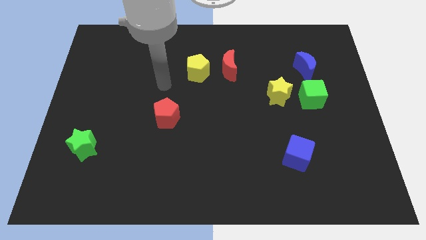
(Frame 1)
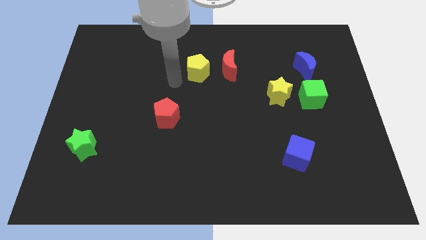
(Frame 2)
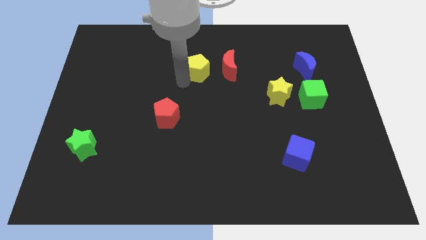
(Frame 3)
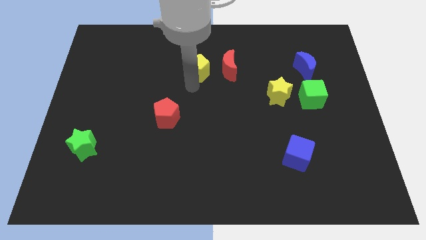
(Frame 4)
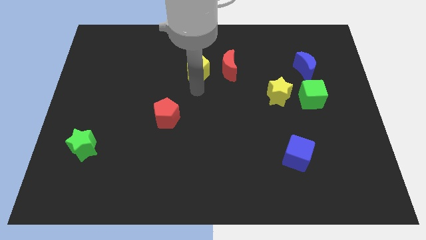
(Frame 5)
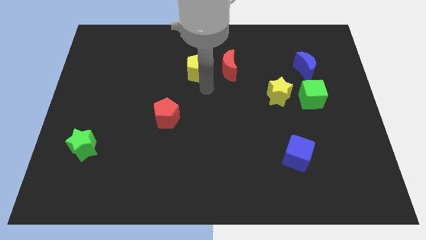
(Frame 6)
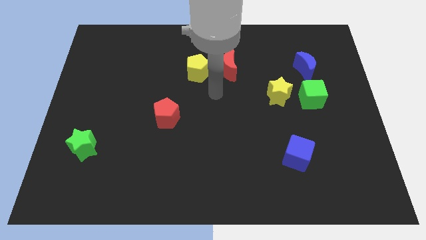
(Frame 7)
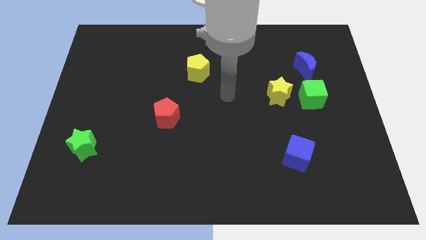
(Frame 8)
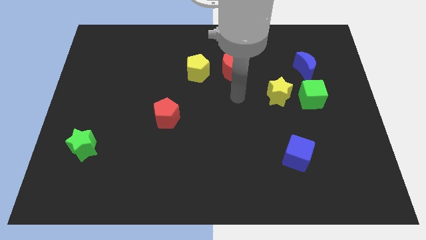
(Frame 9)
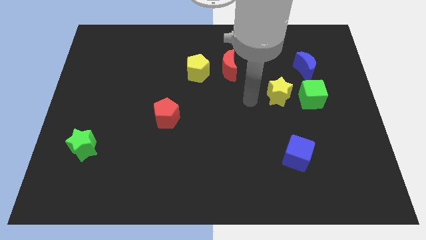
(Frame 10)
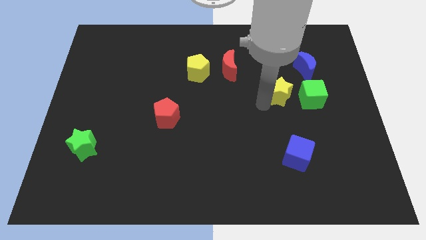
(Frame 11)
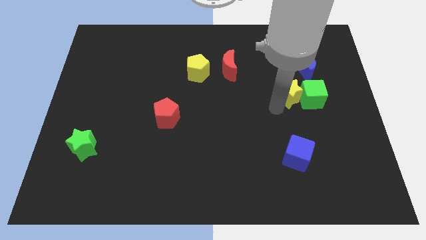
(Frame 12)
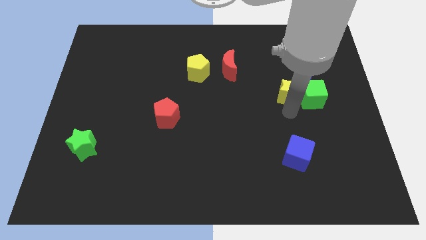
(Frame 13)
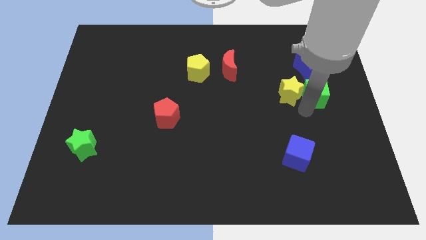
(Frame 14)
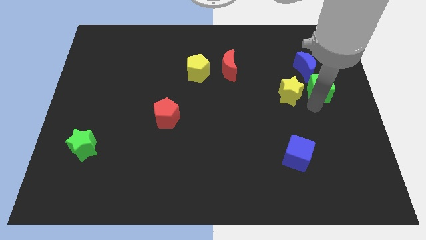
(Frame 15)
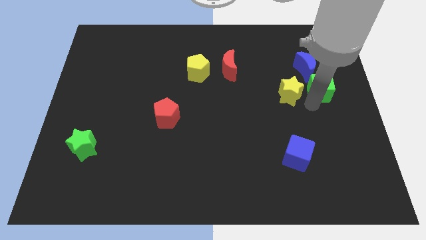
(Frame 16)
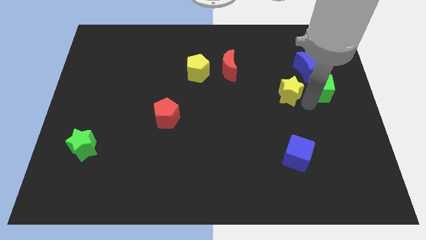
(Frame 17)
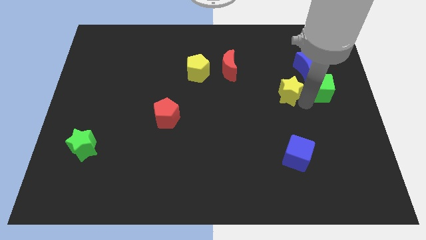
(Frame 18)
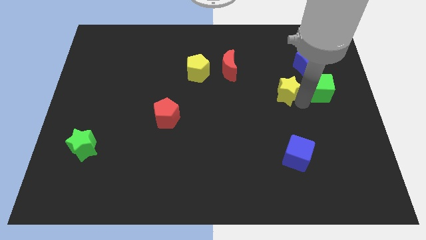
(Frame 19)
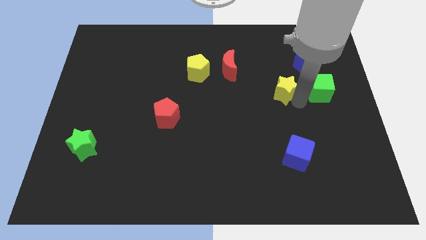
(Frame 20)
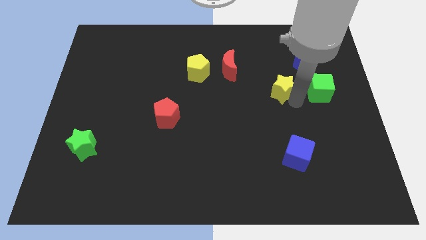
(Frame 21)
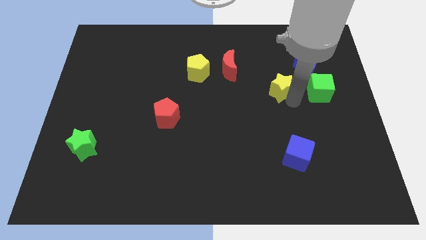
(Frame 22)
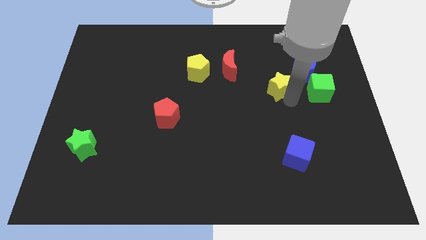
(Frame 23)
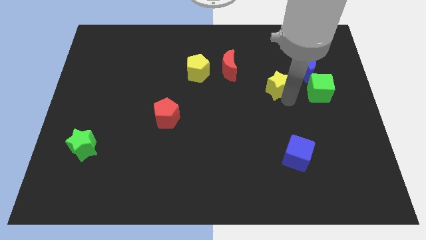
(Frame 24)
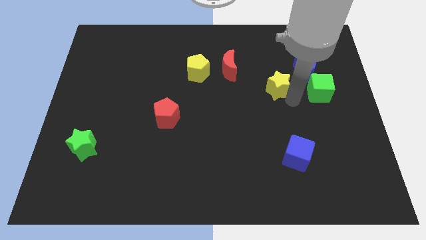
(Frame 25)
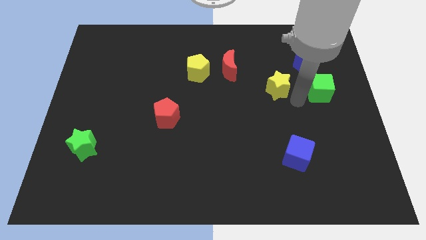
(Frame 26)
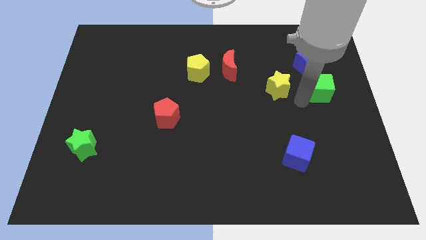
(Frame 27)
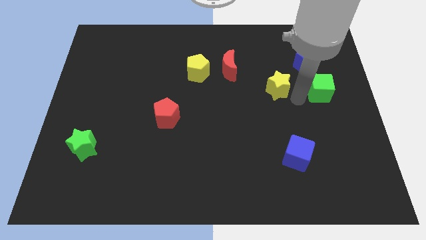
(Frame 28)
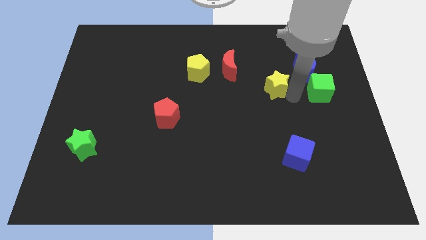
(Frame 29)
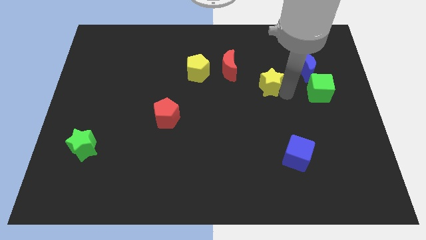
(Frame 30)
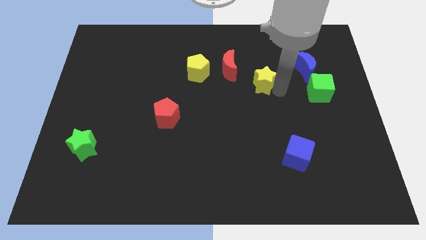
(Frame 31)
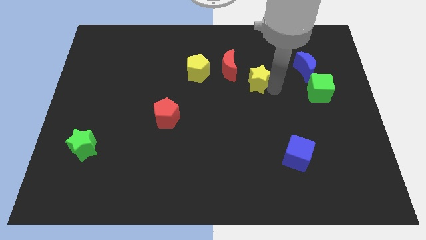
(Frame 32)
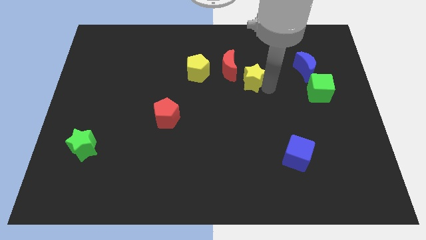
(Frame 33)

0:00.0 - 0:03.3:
slightly push the yellow star upwards and then to the left

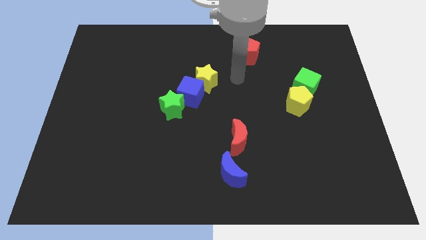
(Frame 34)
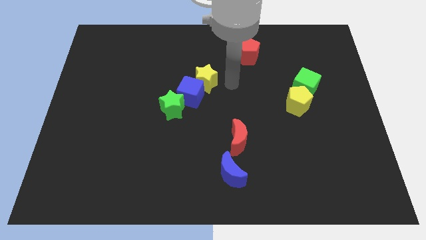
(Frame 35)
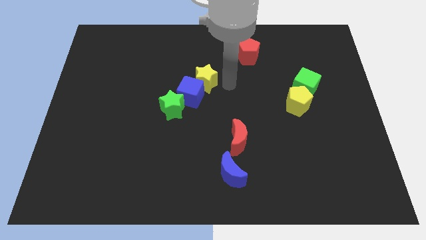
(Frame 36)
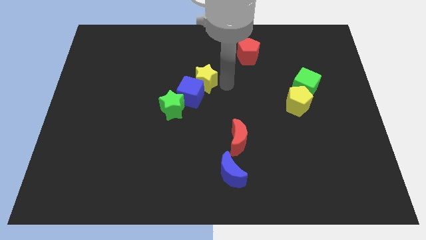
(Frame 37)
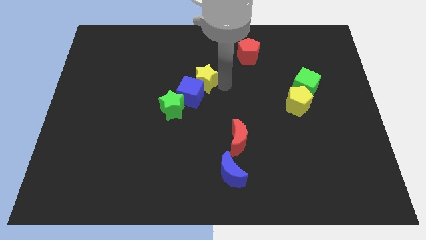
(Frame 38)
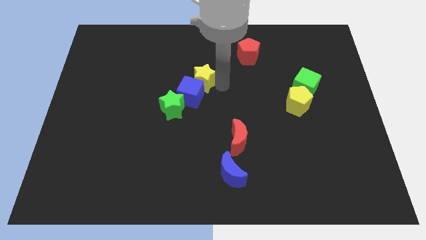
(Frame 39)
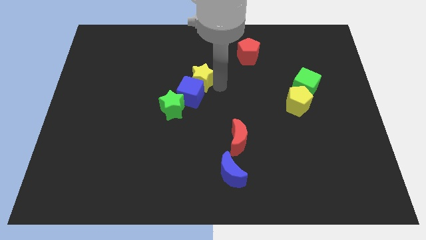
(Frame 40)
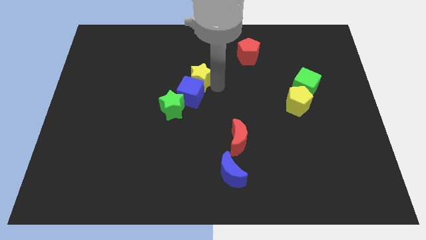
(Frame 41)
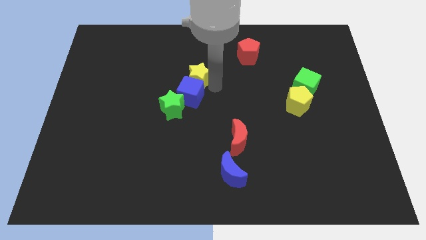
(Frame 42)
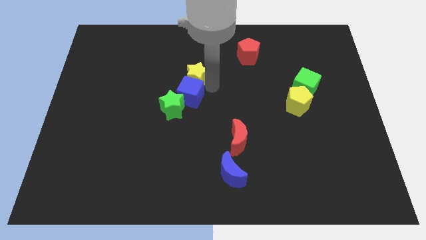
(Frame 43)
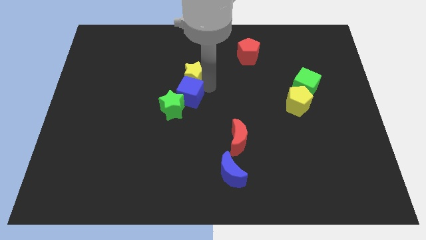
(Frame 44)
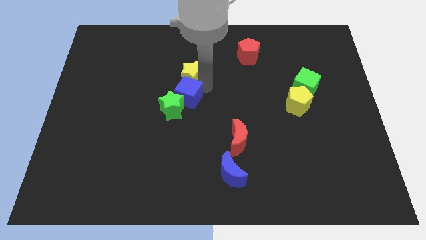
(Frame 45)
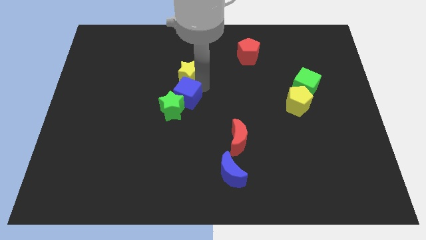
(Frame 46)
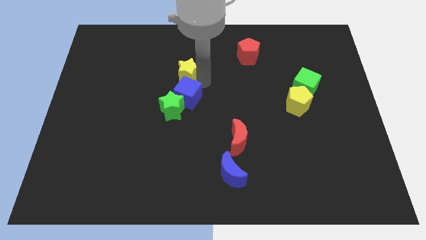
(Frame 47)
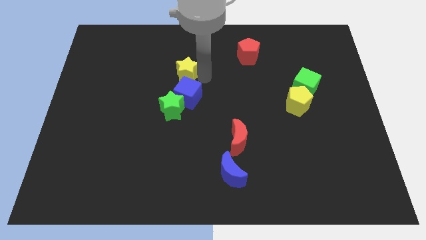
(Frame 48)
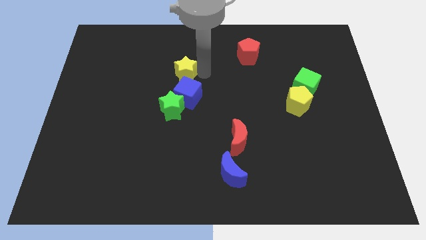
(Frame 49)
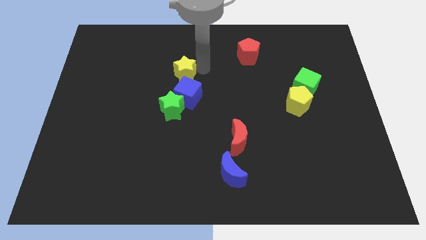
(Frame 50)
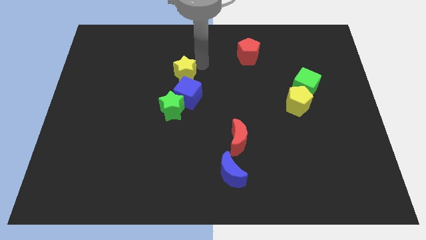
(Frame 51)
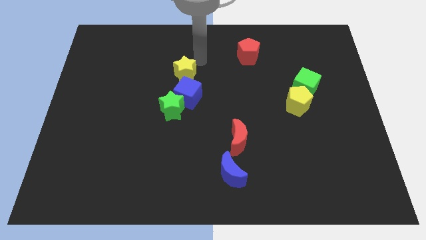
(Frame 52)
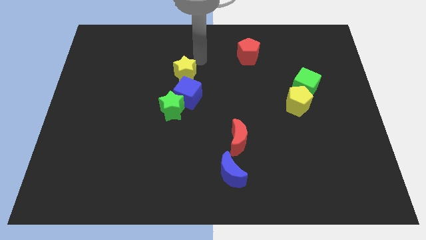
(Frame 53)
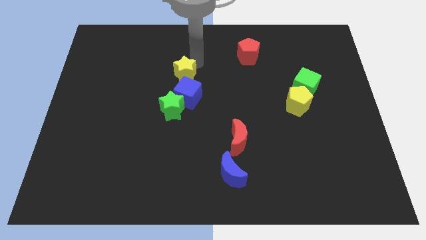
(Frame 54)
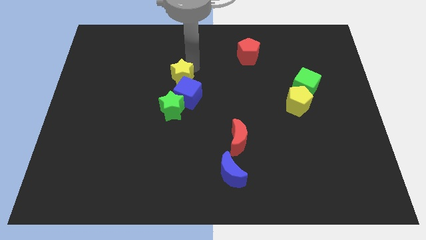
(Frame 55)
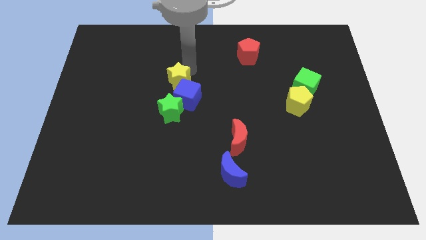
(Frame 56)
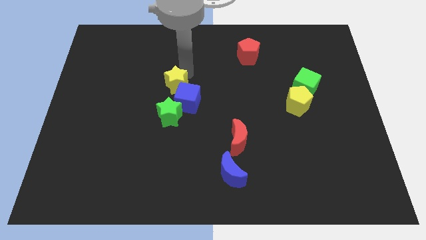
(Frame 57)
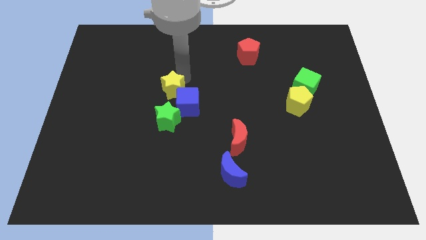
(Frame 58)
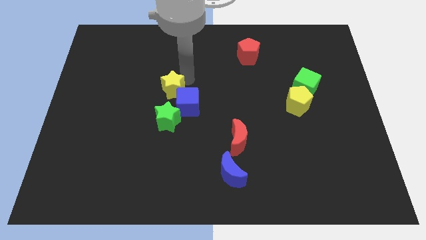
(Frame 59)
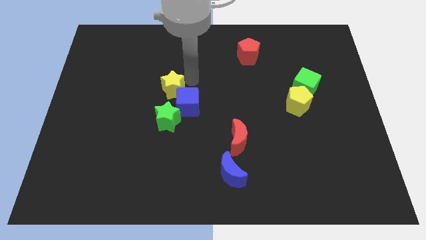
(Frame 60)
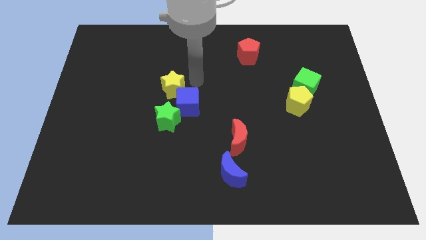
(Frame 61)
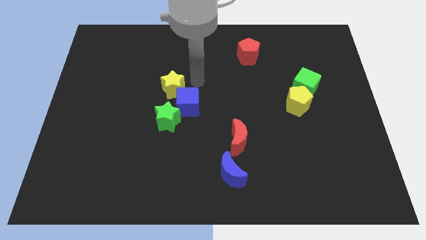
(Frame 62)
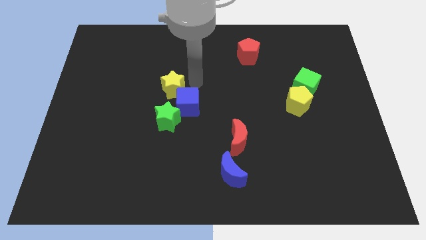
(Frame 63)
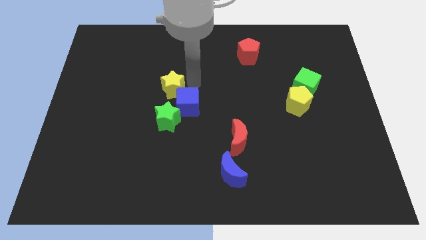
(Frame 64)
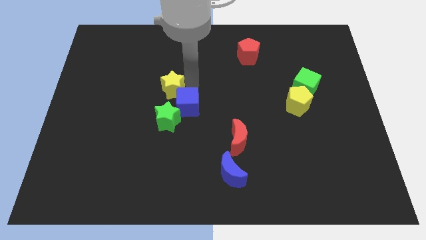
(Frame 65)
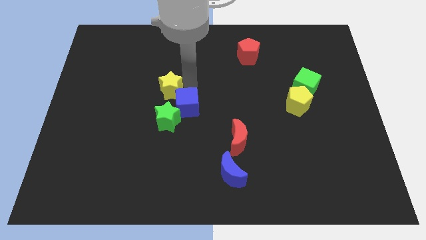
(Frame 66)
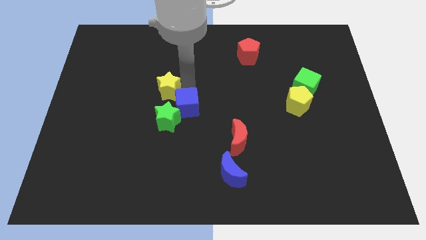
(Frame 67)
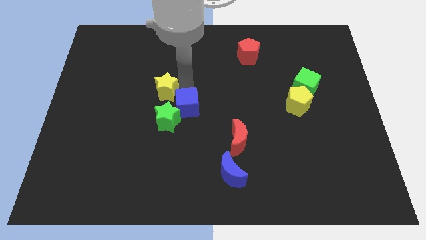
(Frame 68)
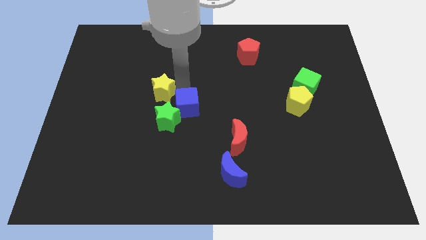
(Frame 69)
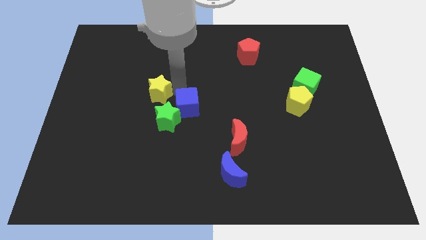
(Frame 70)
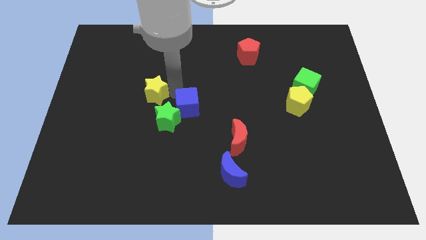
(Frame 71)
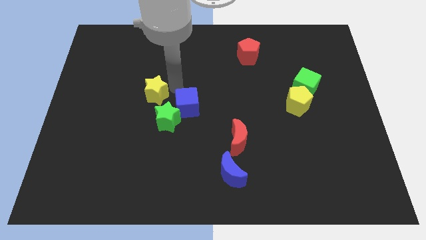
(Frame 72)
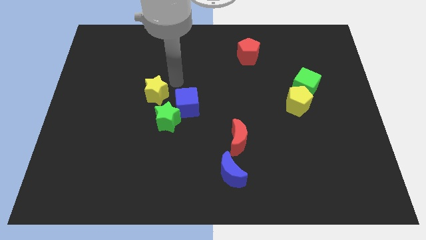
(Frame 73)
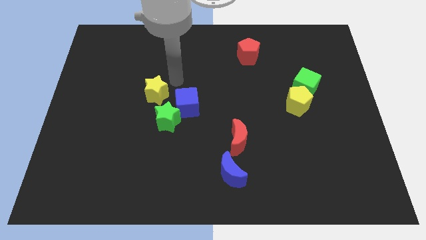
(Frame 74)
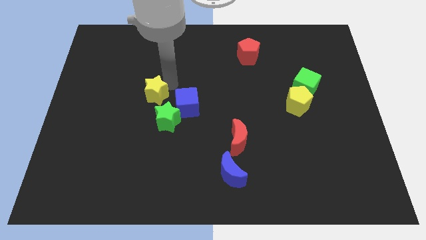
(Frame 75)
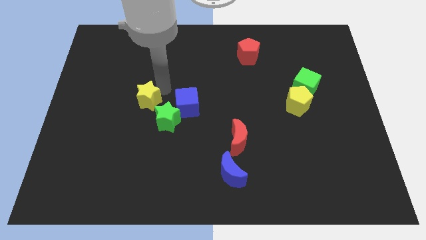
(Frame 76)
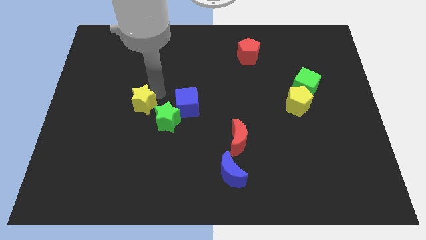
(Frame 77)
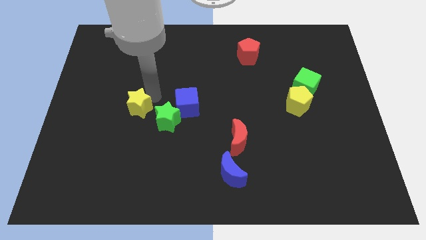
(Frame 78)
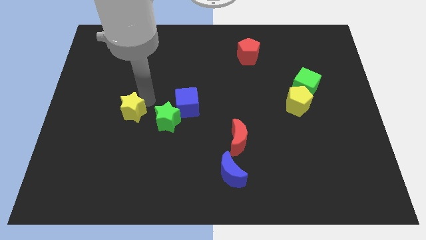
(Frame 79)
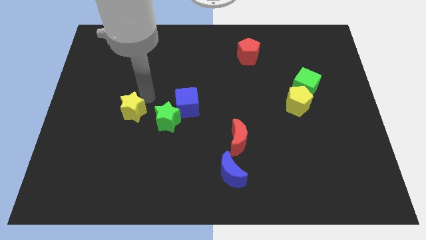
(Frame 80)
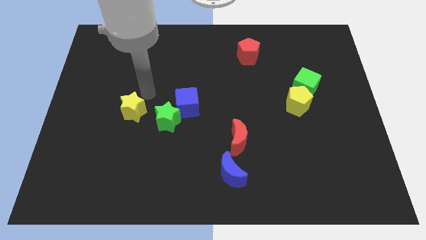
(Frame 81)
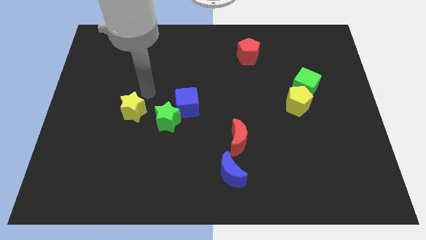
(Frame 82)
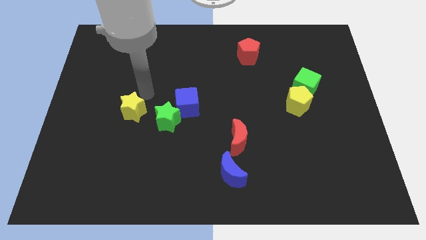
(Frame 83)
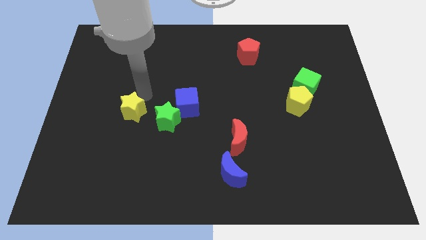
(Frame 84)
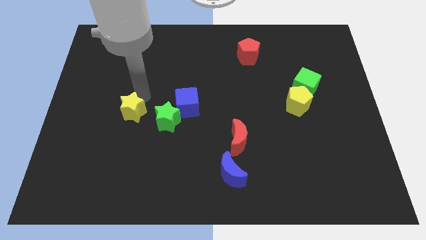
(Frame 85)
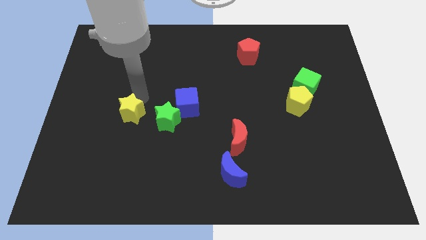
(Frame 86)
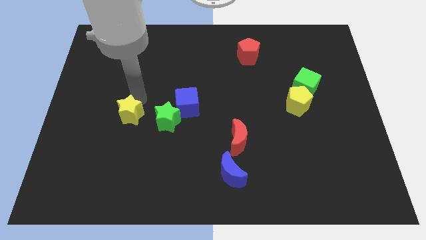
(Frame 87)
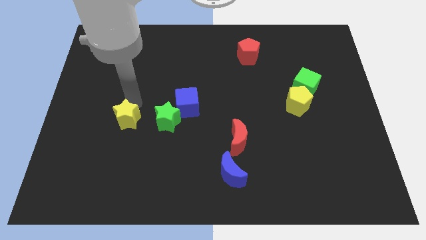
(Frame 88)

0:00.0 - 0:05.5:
move the yellow star downwards and to the left
